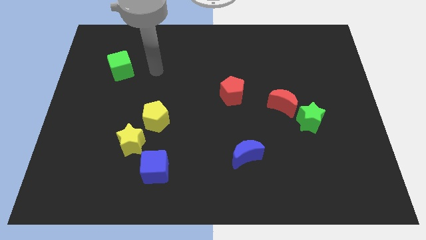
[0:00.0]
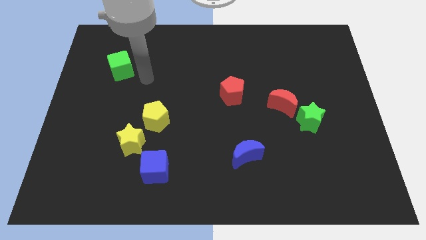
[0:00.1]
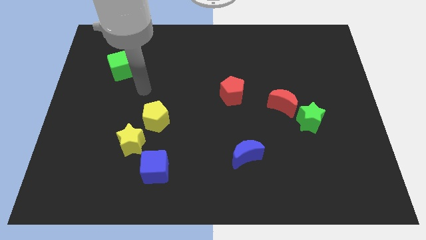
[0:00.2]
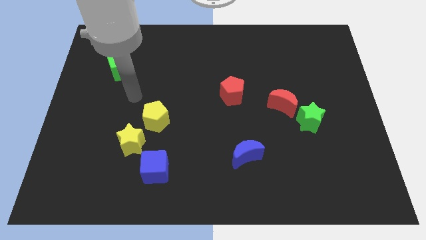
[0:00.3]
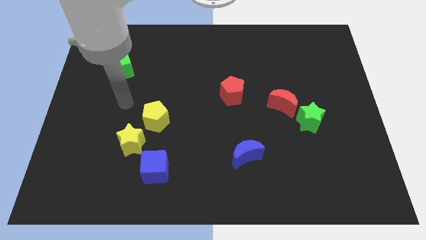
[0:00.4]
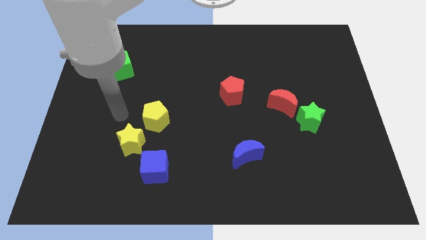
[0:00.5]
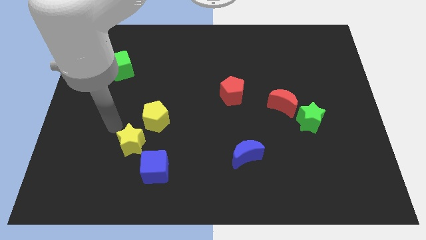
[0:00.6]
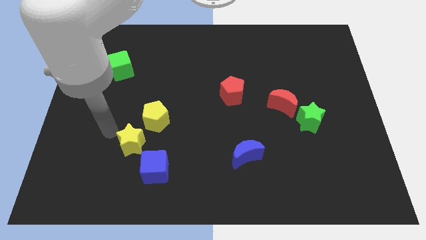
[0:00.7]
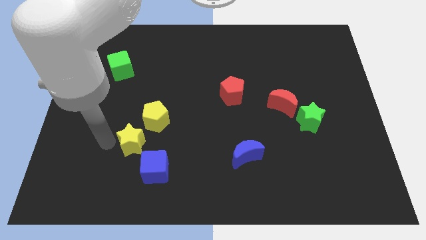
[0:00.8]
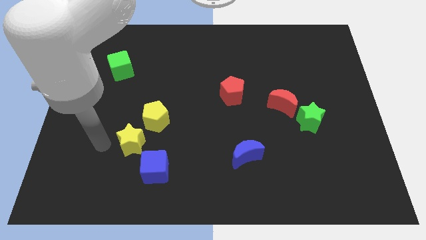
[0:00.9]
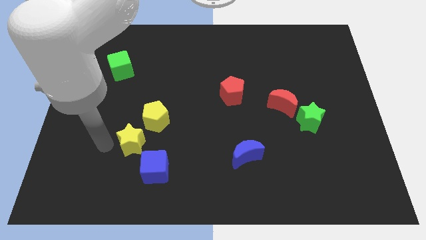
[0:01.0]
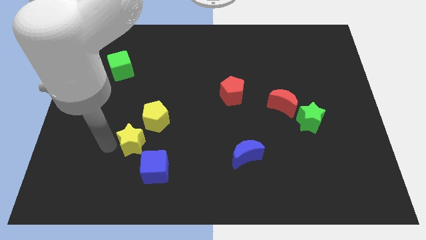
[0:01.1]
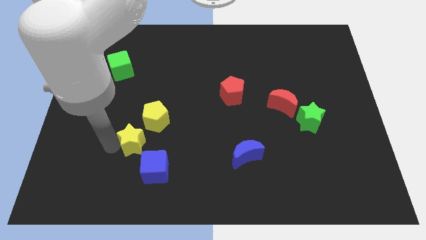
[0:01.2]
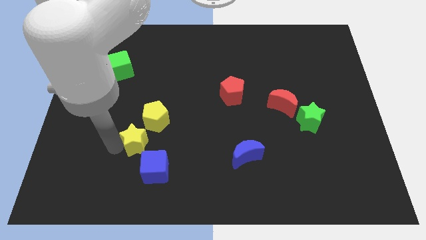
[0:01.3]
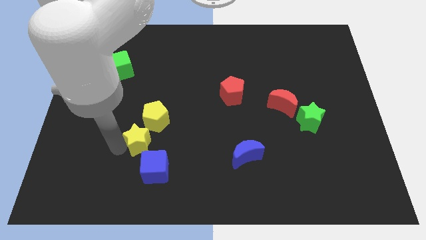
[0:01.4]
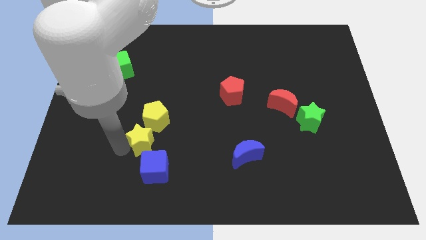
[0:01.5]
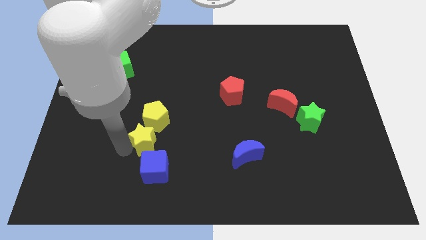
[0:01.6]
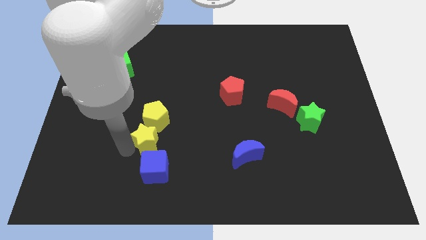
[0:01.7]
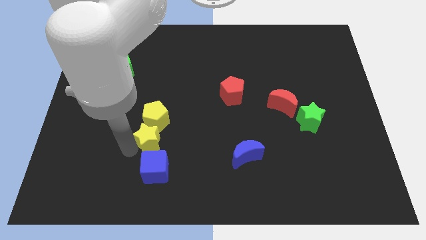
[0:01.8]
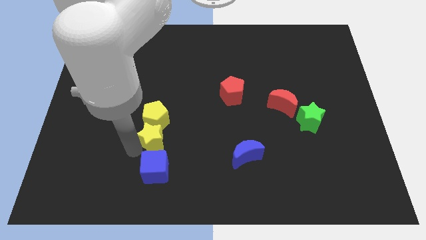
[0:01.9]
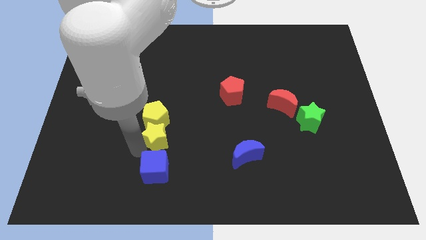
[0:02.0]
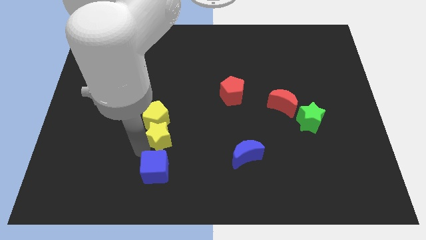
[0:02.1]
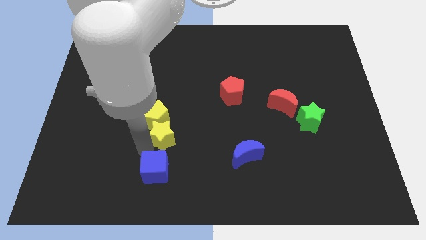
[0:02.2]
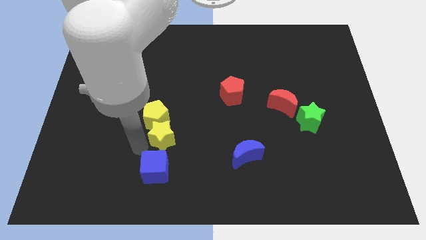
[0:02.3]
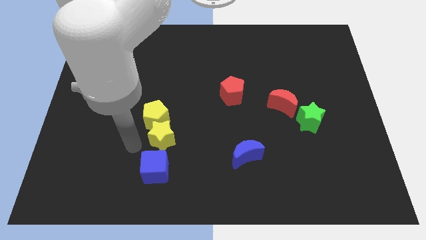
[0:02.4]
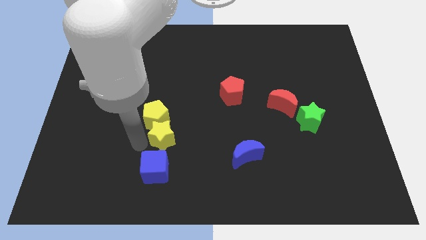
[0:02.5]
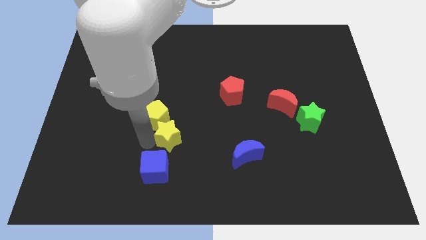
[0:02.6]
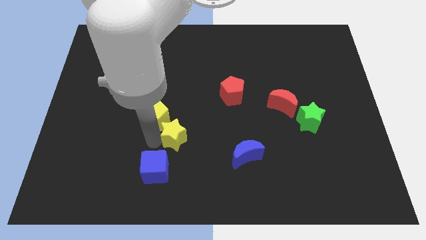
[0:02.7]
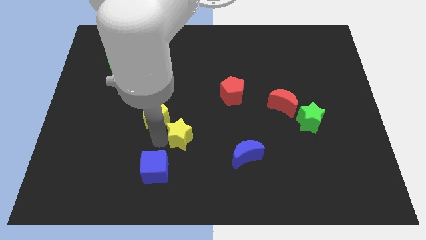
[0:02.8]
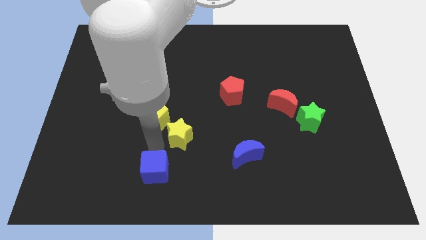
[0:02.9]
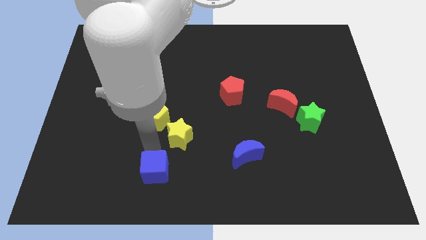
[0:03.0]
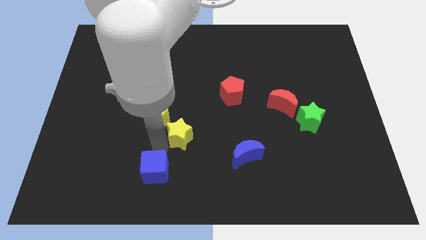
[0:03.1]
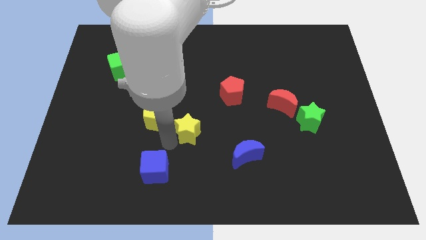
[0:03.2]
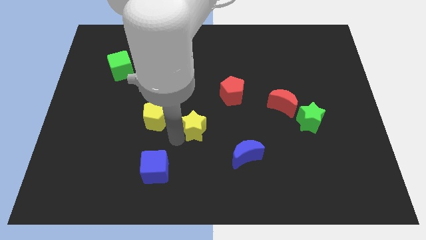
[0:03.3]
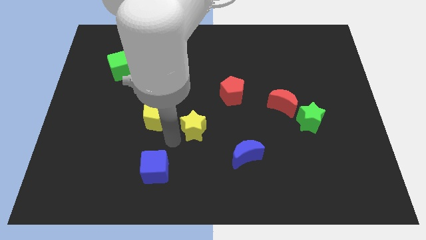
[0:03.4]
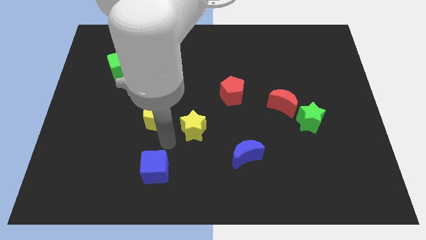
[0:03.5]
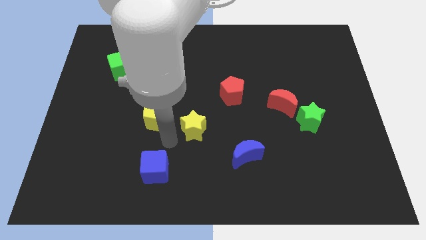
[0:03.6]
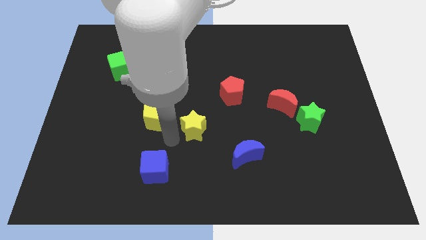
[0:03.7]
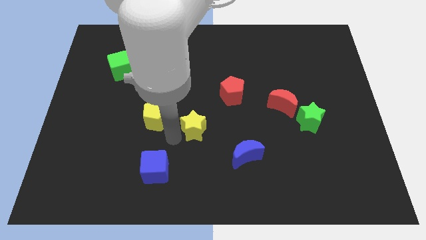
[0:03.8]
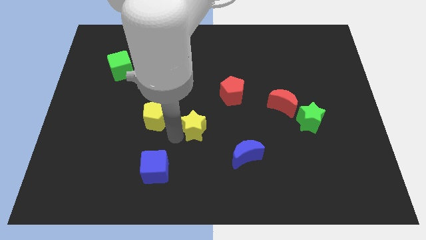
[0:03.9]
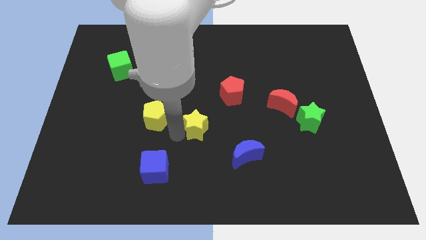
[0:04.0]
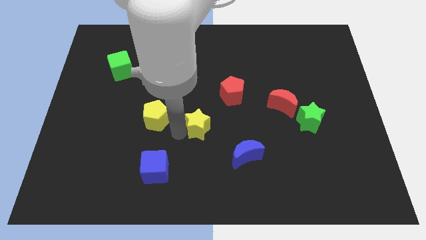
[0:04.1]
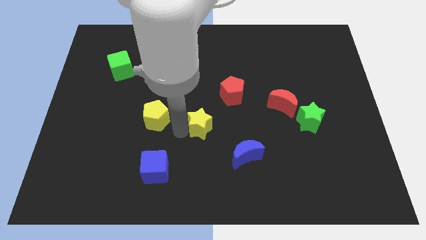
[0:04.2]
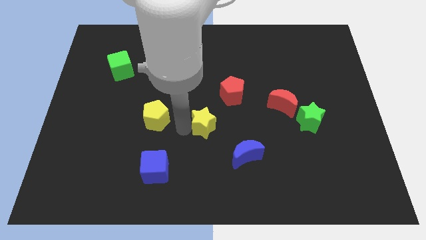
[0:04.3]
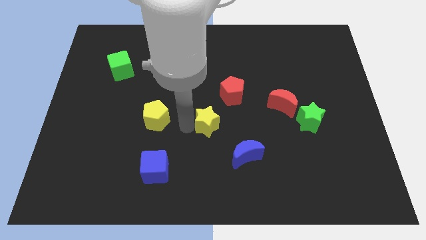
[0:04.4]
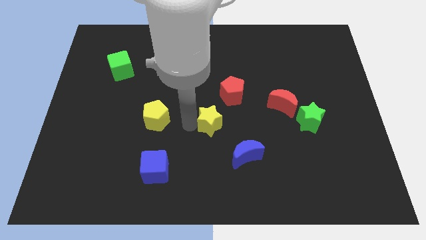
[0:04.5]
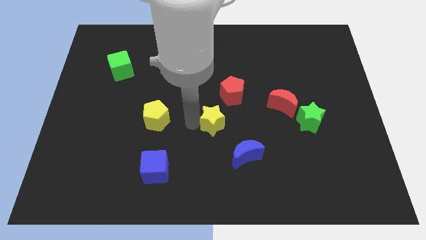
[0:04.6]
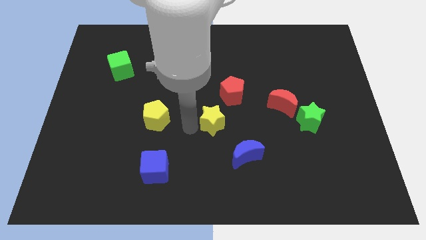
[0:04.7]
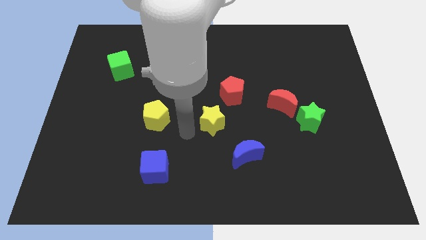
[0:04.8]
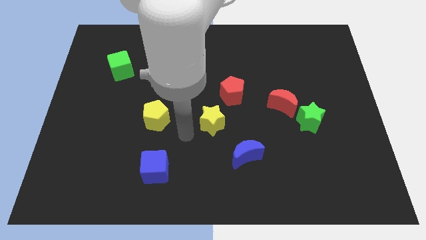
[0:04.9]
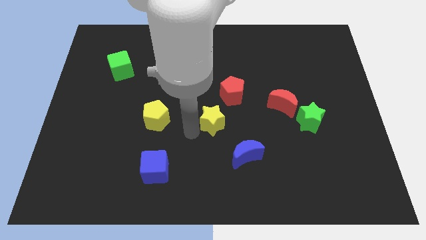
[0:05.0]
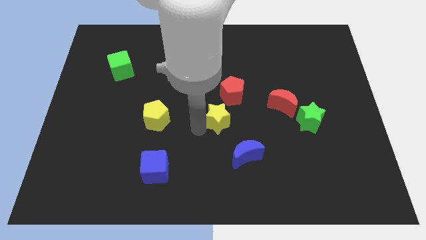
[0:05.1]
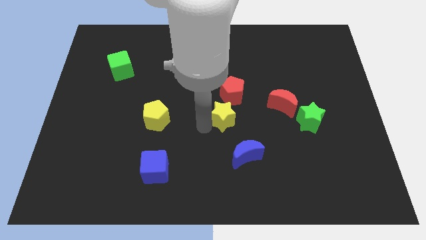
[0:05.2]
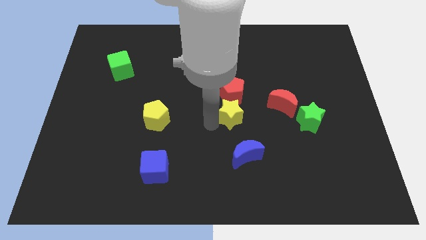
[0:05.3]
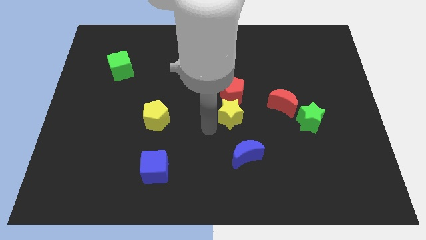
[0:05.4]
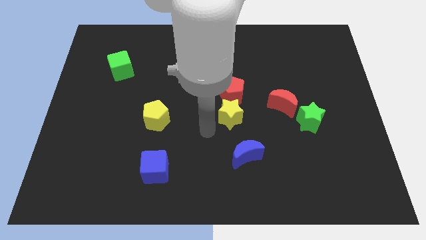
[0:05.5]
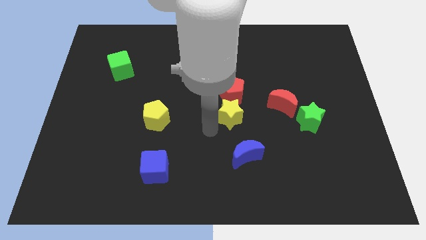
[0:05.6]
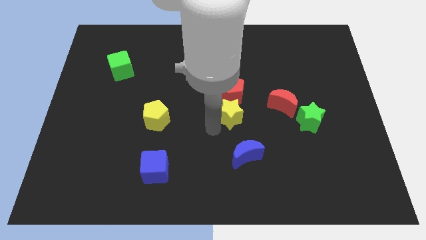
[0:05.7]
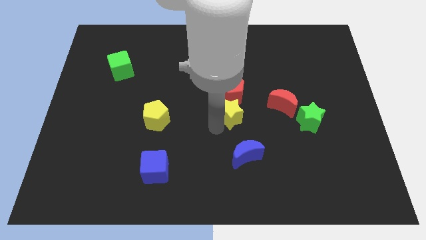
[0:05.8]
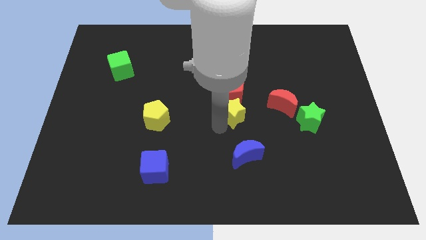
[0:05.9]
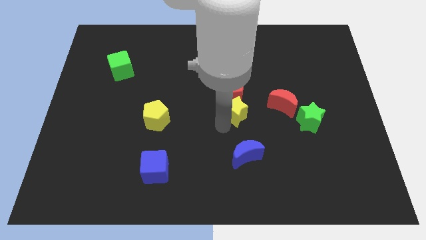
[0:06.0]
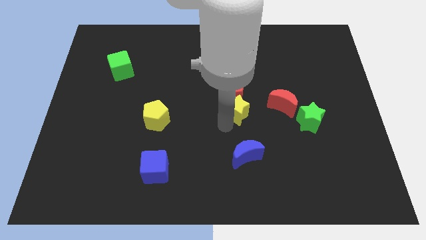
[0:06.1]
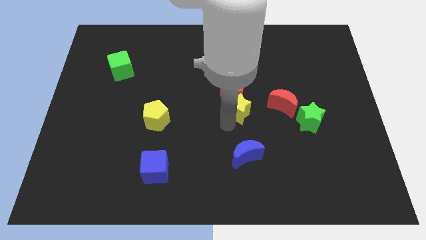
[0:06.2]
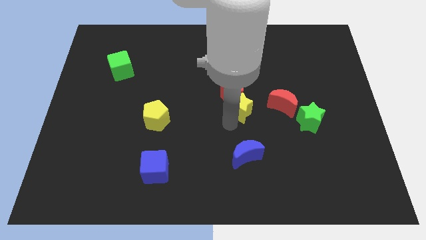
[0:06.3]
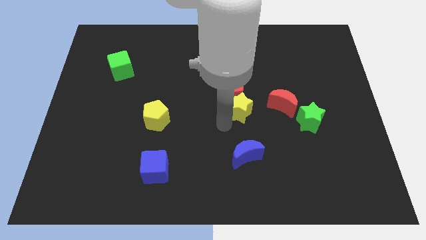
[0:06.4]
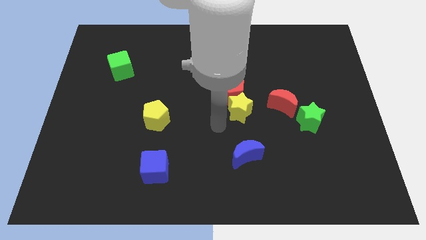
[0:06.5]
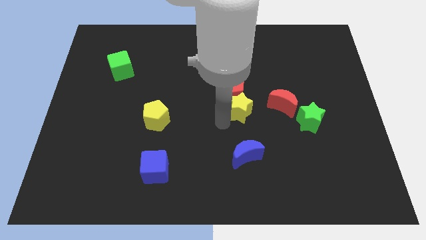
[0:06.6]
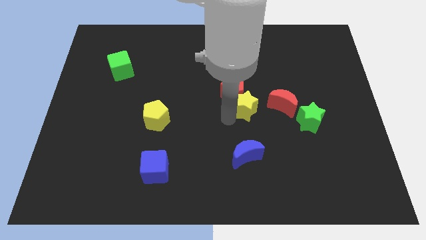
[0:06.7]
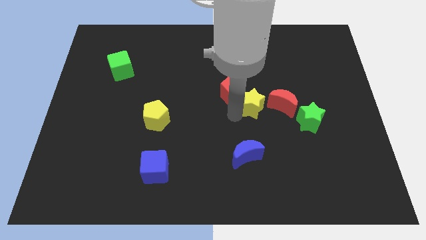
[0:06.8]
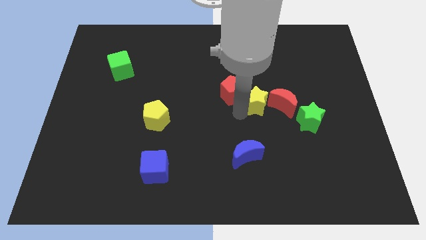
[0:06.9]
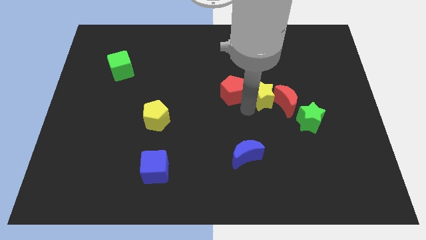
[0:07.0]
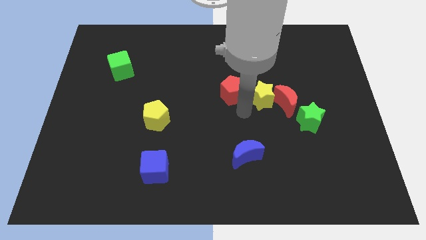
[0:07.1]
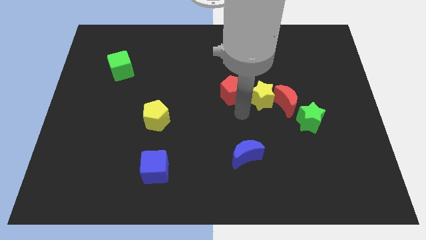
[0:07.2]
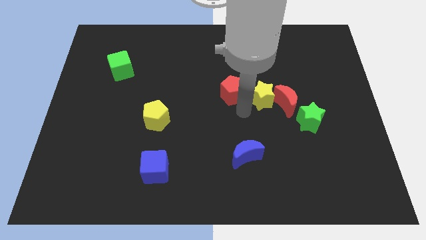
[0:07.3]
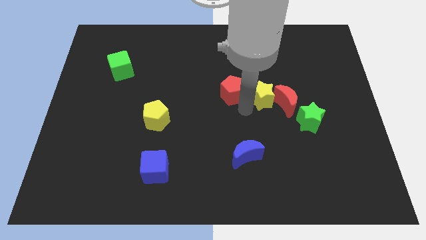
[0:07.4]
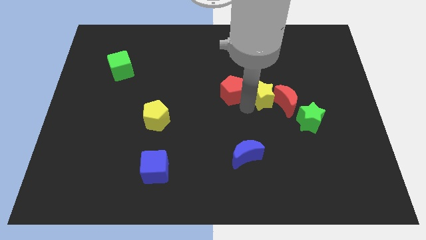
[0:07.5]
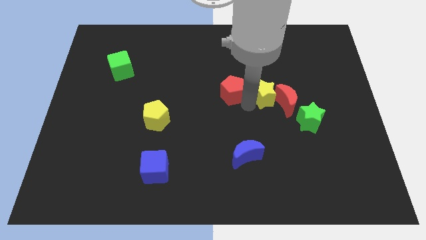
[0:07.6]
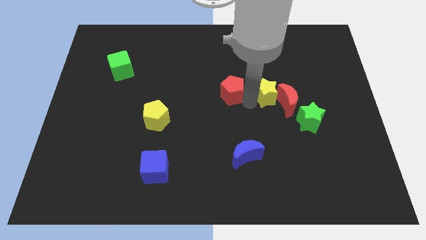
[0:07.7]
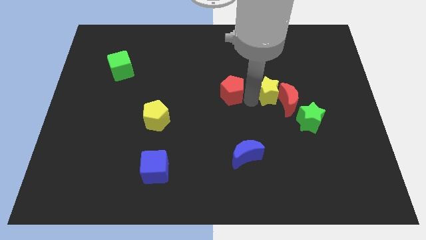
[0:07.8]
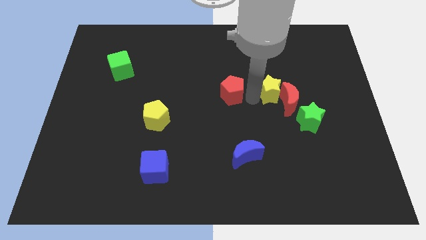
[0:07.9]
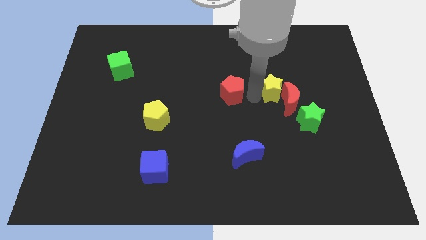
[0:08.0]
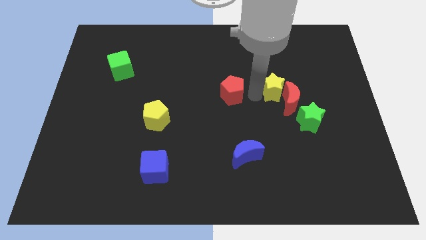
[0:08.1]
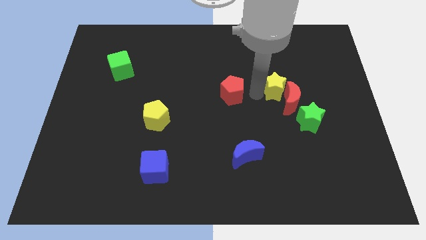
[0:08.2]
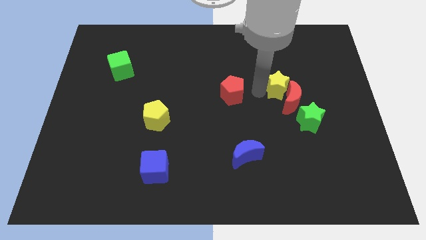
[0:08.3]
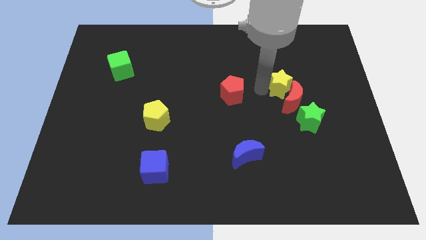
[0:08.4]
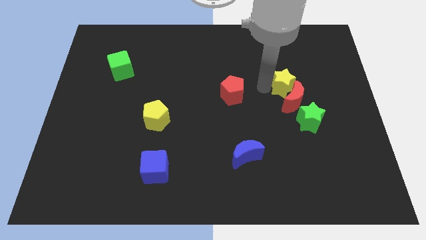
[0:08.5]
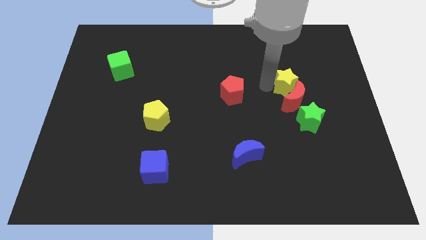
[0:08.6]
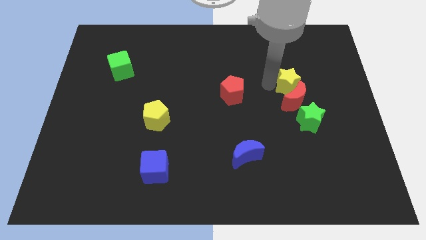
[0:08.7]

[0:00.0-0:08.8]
put the yellow star to the top right side of the red moon
